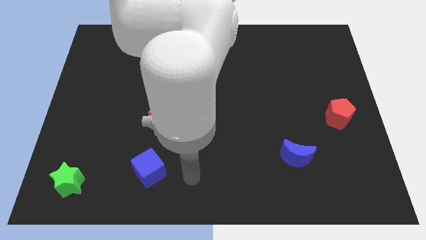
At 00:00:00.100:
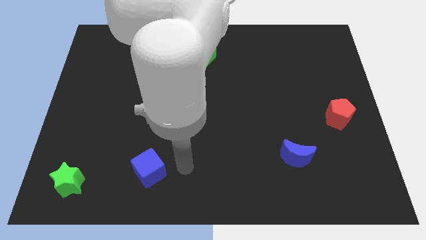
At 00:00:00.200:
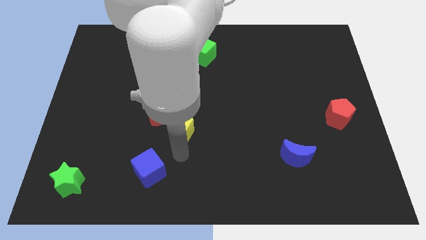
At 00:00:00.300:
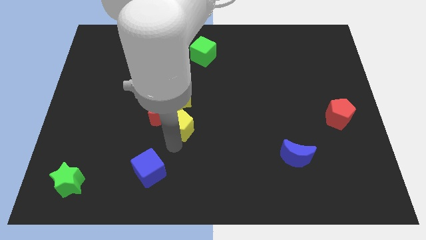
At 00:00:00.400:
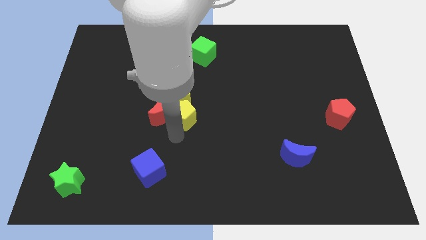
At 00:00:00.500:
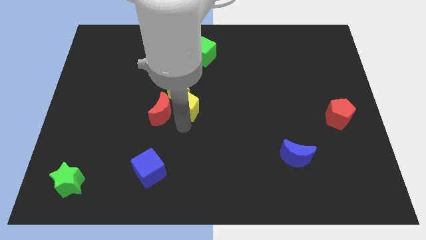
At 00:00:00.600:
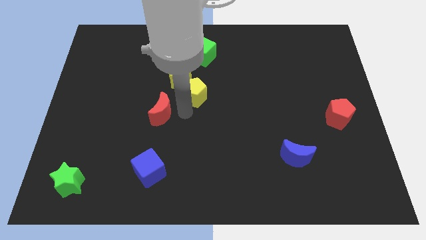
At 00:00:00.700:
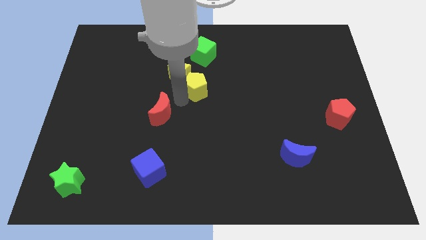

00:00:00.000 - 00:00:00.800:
separate the red moon from the yellow star and yellow pentagon

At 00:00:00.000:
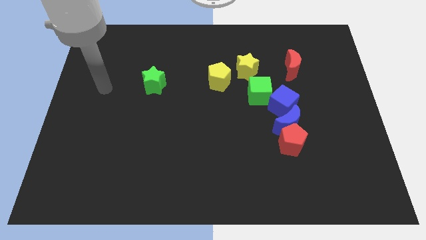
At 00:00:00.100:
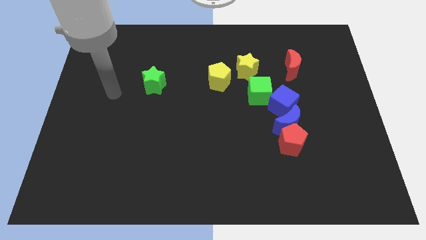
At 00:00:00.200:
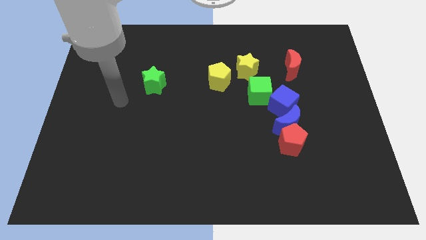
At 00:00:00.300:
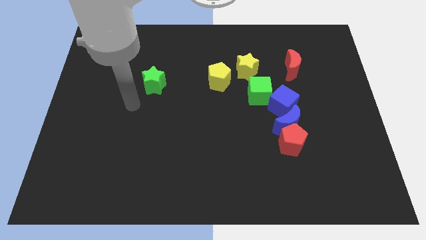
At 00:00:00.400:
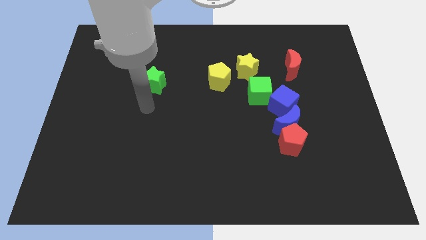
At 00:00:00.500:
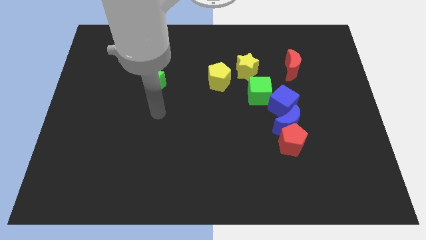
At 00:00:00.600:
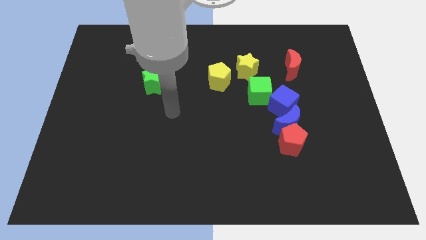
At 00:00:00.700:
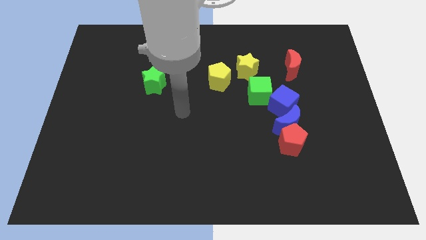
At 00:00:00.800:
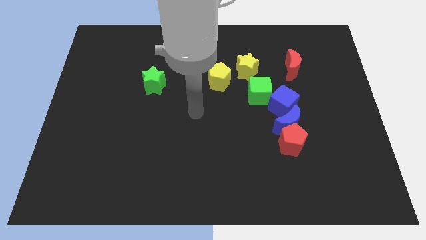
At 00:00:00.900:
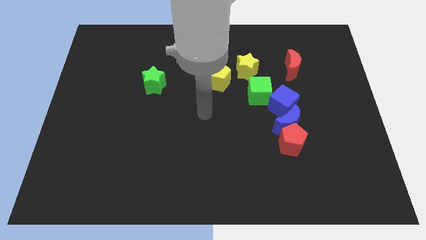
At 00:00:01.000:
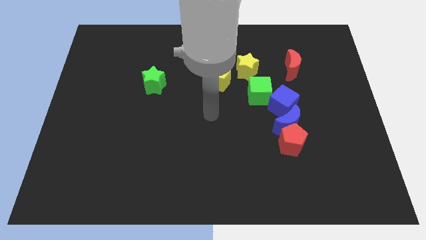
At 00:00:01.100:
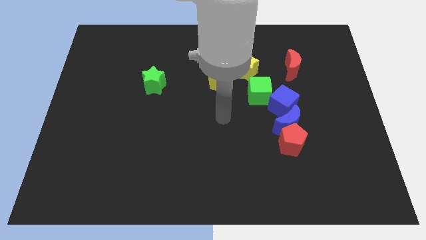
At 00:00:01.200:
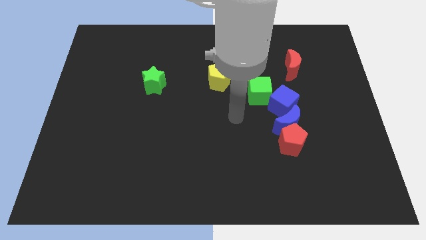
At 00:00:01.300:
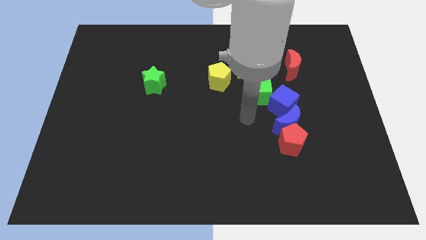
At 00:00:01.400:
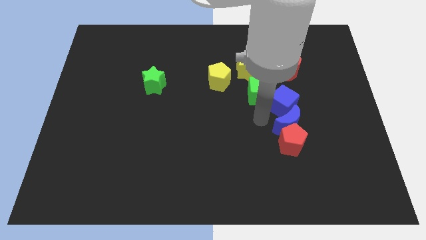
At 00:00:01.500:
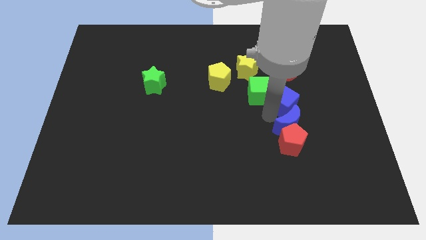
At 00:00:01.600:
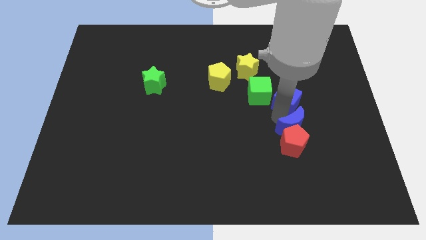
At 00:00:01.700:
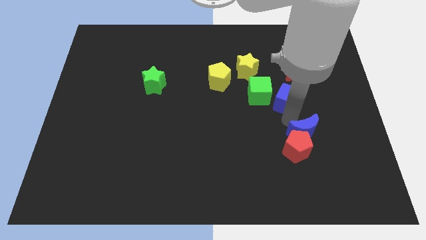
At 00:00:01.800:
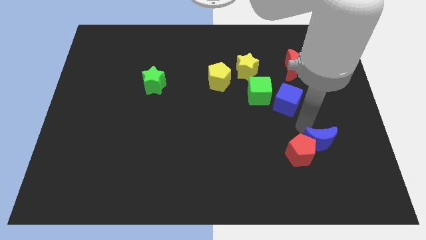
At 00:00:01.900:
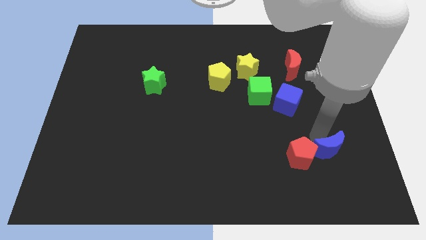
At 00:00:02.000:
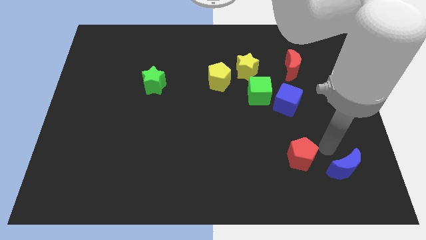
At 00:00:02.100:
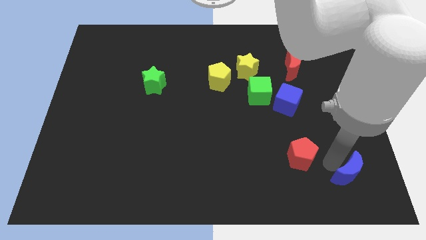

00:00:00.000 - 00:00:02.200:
pull the red pentagon apart from the blue moon

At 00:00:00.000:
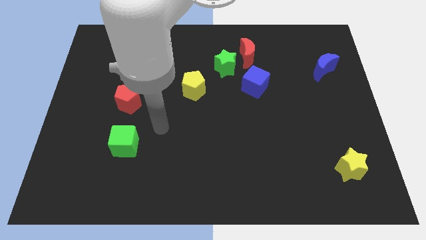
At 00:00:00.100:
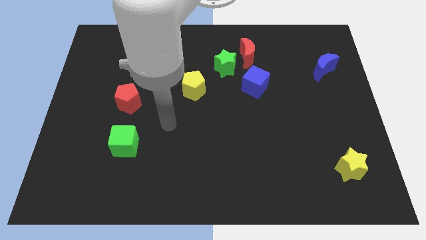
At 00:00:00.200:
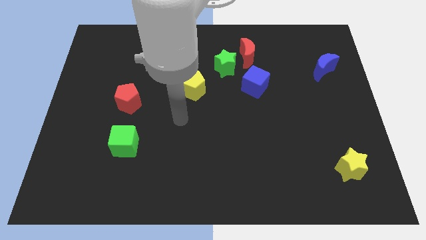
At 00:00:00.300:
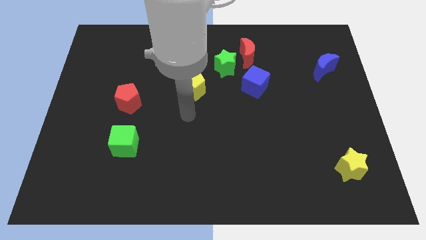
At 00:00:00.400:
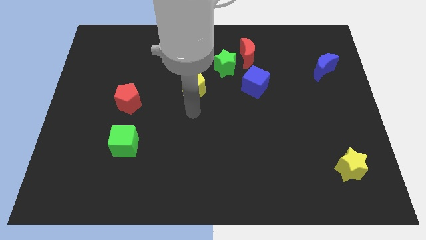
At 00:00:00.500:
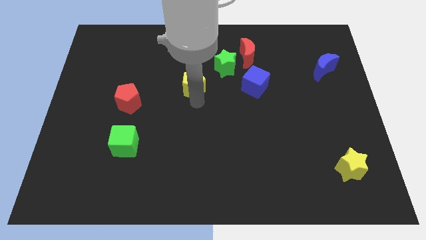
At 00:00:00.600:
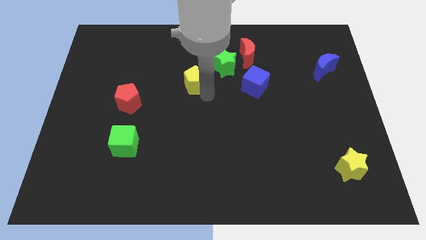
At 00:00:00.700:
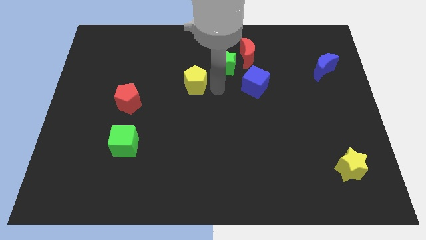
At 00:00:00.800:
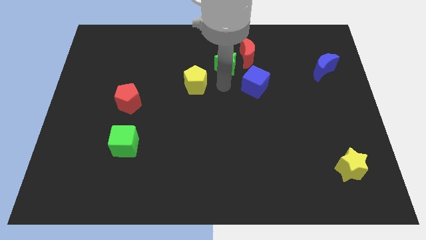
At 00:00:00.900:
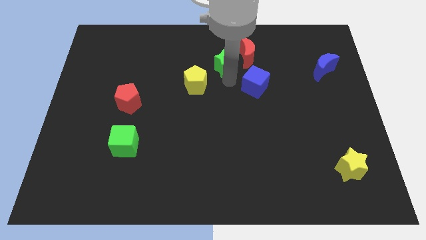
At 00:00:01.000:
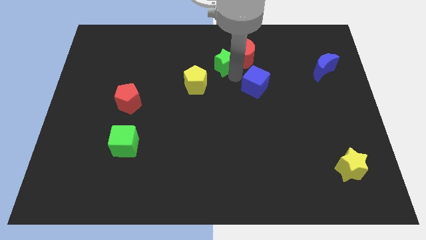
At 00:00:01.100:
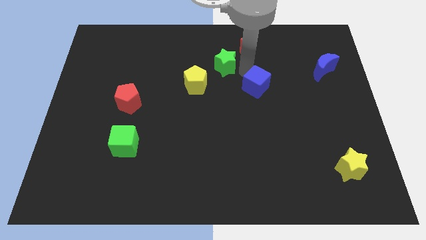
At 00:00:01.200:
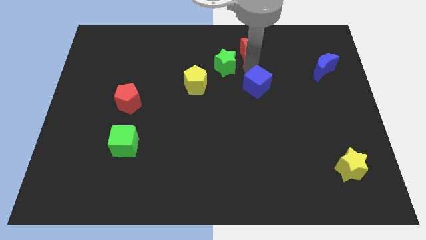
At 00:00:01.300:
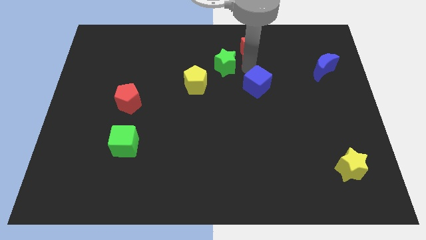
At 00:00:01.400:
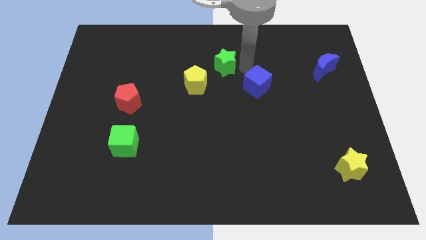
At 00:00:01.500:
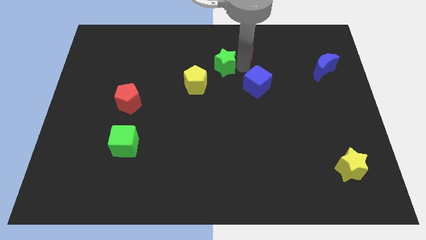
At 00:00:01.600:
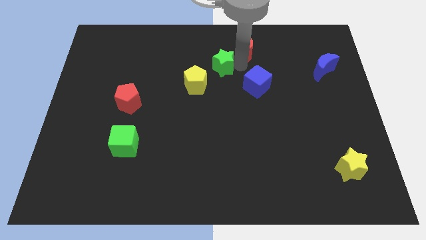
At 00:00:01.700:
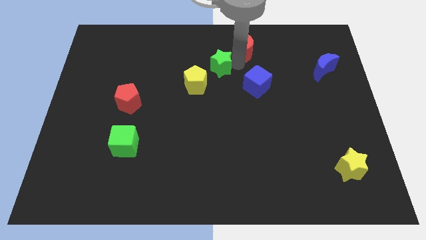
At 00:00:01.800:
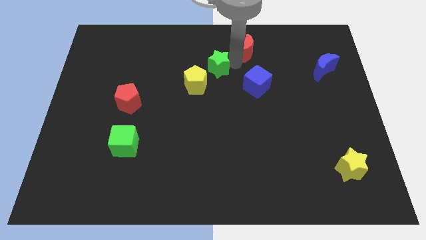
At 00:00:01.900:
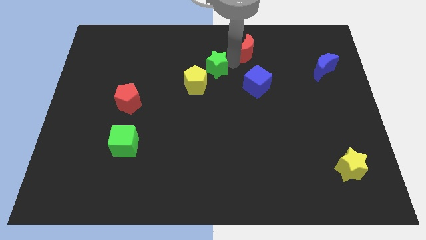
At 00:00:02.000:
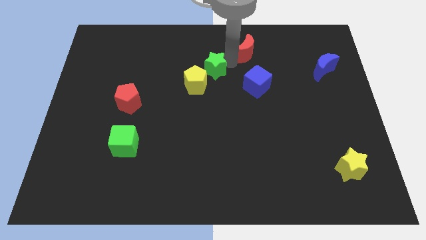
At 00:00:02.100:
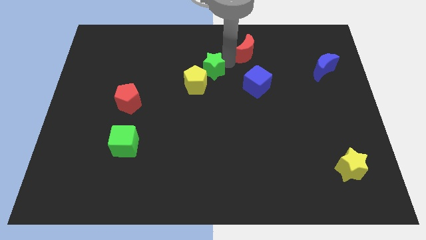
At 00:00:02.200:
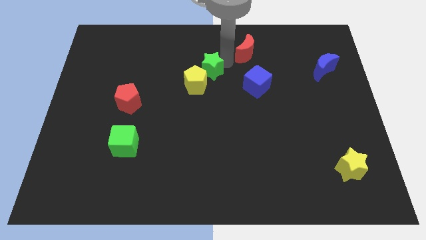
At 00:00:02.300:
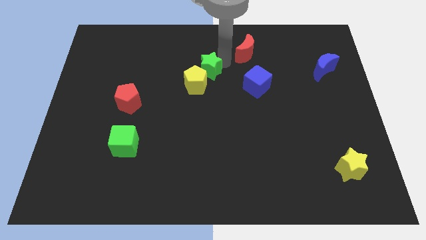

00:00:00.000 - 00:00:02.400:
separate the green star from the red moon and blue cube

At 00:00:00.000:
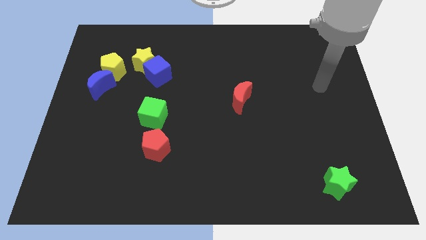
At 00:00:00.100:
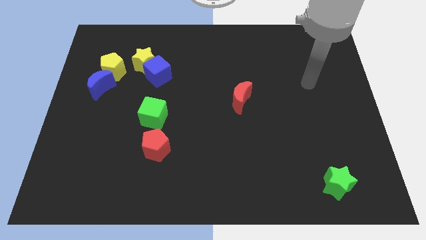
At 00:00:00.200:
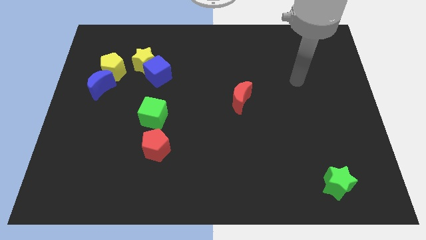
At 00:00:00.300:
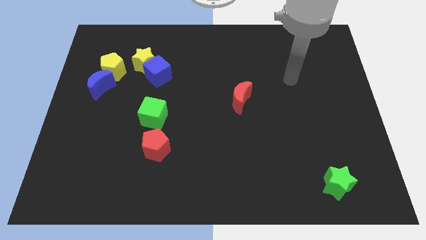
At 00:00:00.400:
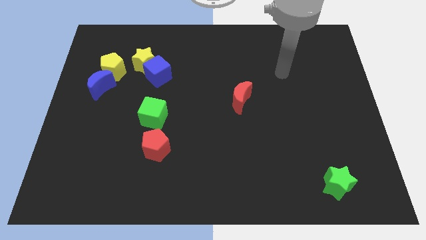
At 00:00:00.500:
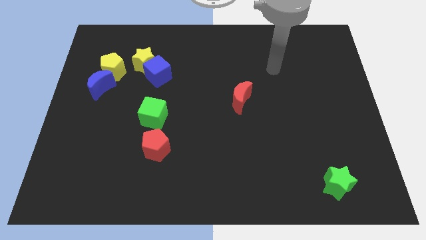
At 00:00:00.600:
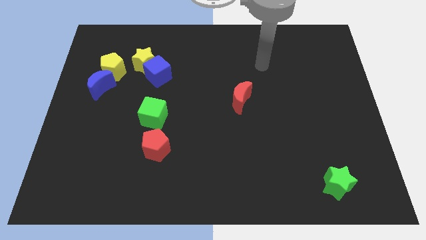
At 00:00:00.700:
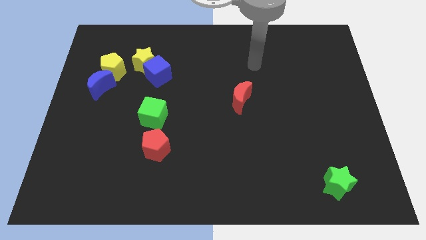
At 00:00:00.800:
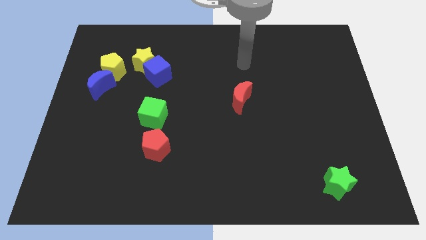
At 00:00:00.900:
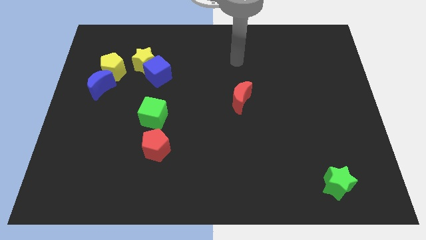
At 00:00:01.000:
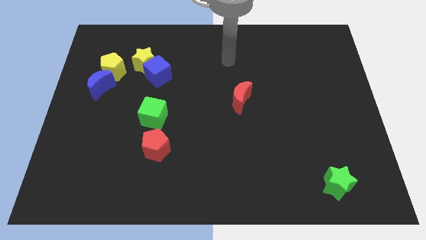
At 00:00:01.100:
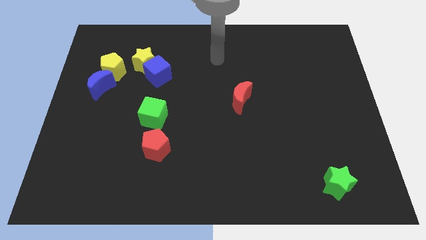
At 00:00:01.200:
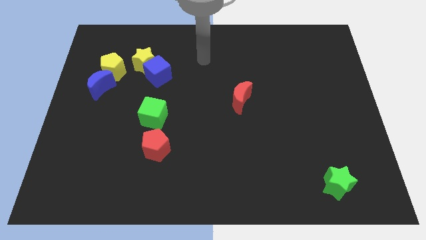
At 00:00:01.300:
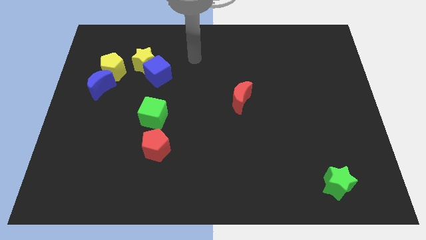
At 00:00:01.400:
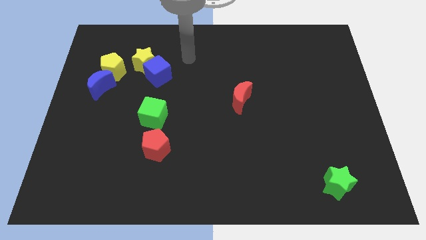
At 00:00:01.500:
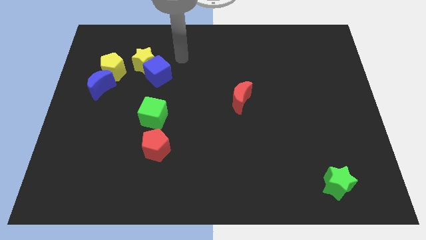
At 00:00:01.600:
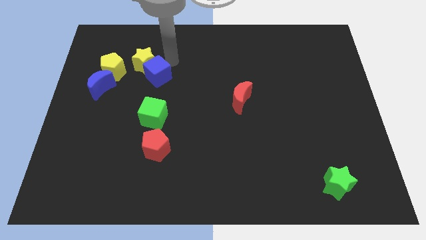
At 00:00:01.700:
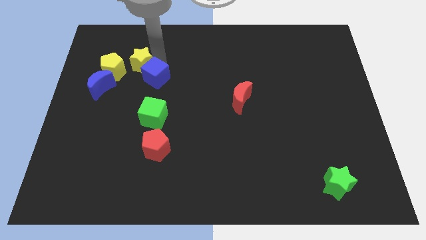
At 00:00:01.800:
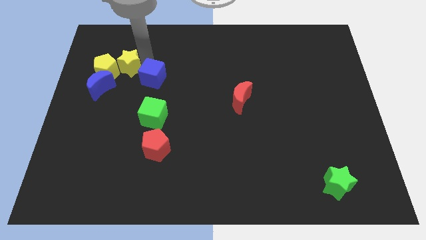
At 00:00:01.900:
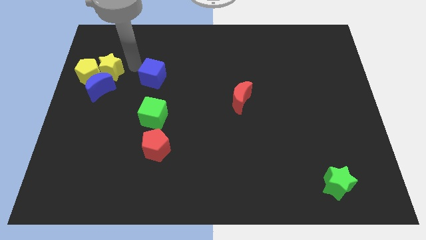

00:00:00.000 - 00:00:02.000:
pull the blue cube apart from the yellow star

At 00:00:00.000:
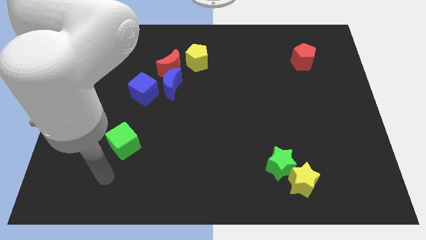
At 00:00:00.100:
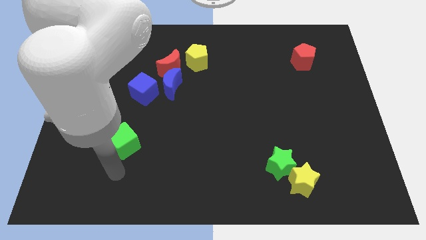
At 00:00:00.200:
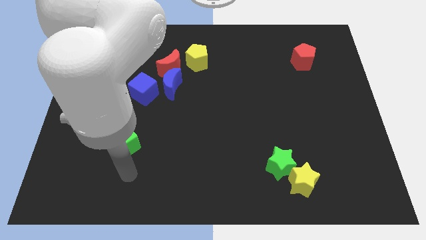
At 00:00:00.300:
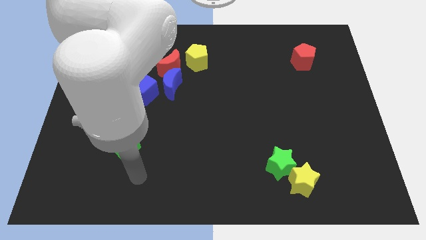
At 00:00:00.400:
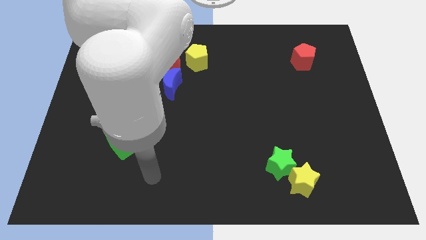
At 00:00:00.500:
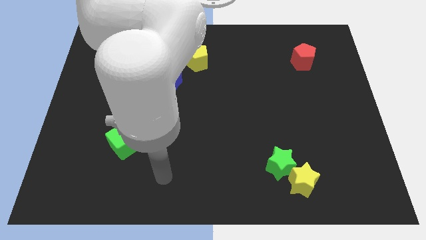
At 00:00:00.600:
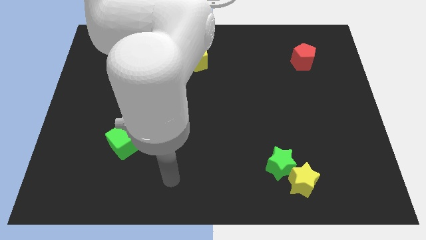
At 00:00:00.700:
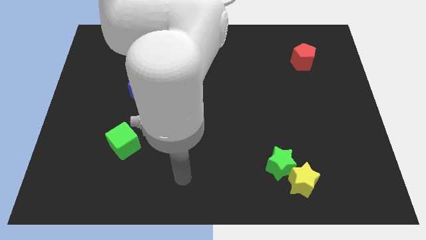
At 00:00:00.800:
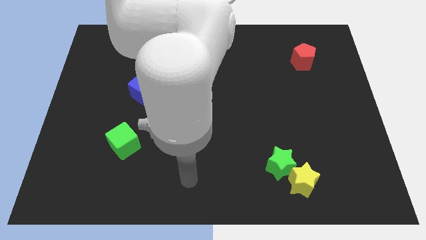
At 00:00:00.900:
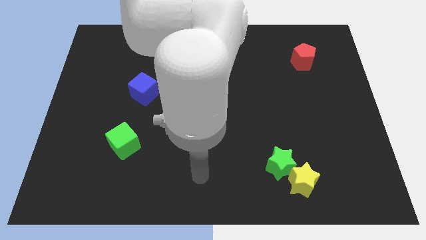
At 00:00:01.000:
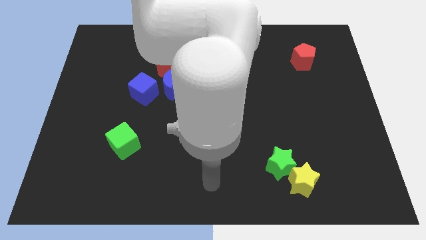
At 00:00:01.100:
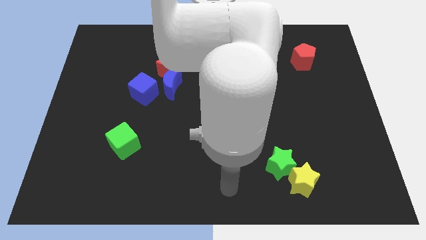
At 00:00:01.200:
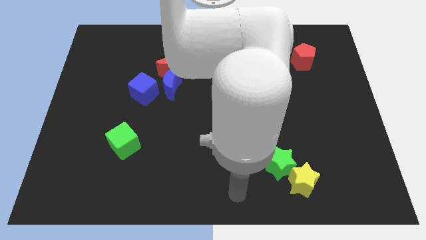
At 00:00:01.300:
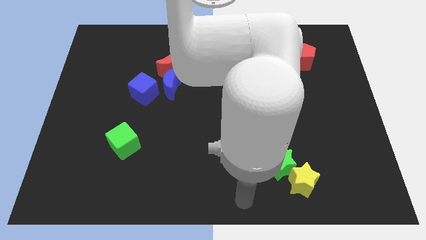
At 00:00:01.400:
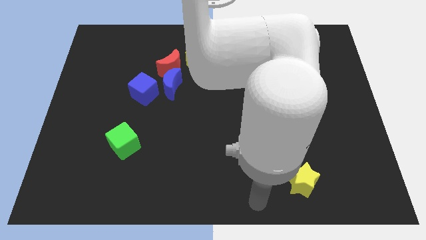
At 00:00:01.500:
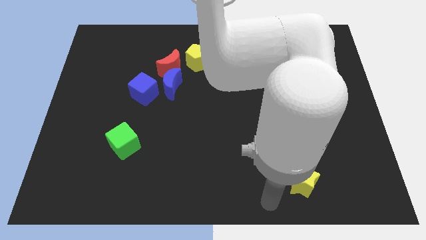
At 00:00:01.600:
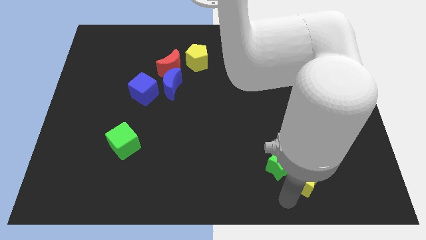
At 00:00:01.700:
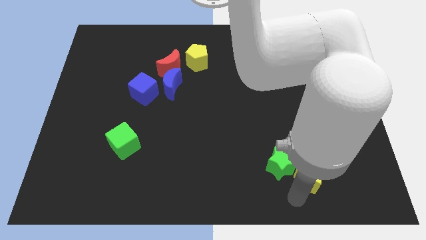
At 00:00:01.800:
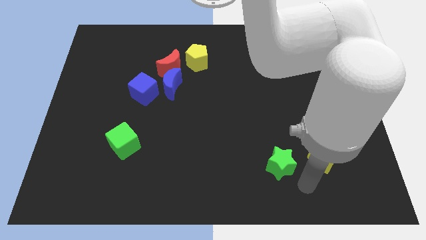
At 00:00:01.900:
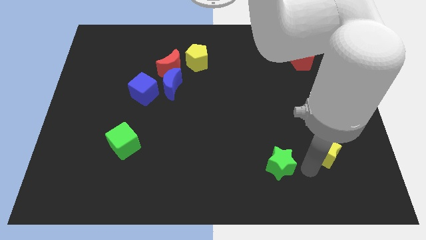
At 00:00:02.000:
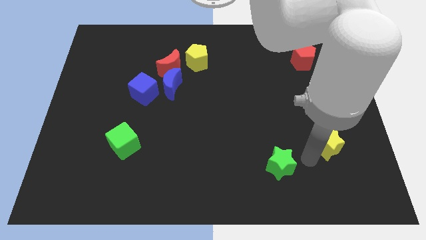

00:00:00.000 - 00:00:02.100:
move the green star away from the yellow star
